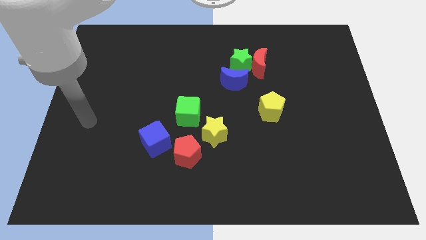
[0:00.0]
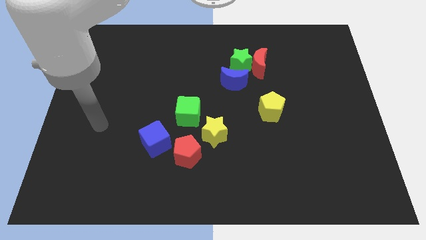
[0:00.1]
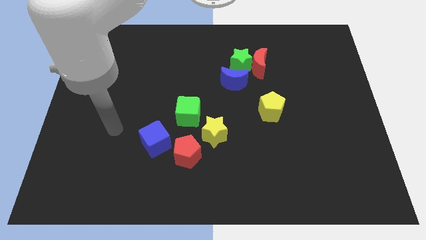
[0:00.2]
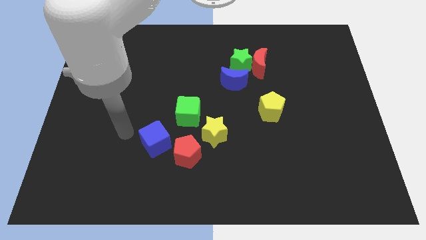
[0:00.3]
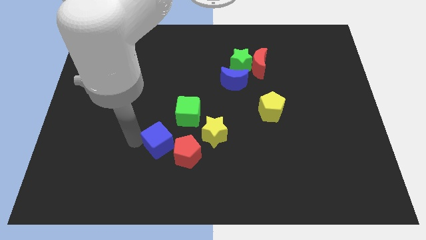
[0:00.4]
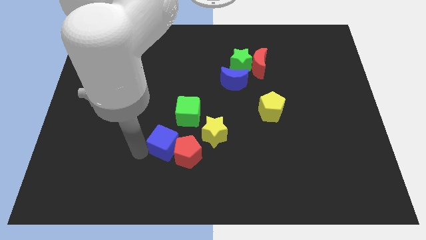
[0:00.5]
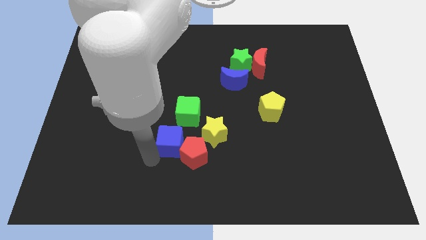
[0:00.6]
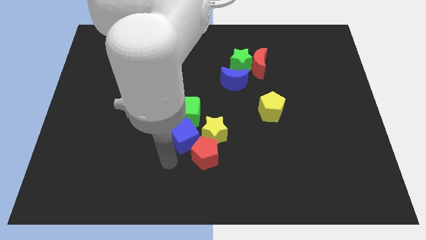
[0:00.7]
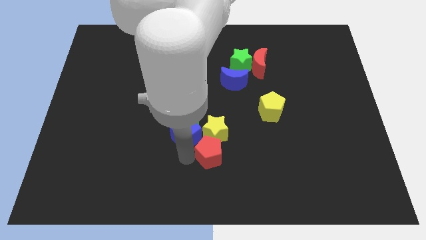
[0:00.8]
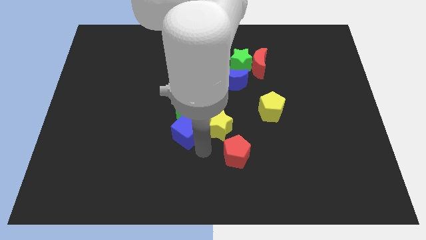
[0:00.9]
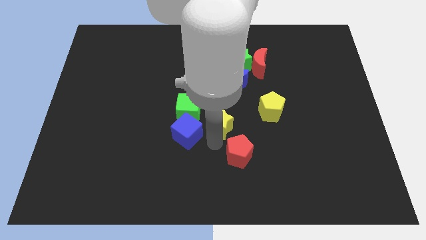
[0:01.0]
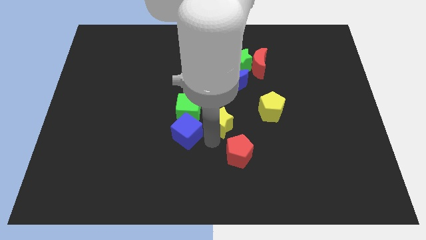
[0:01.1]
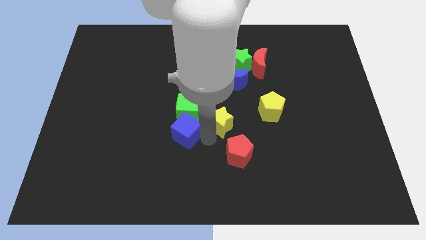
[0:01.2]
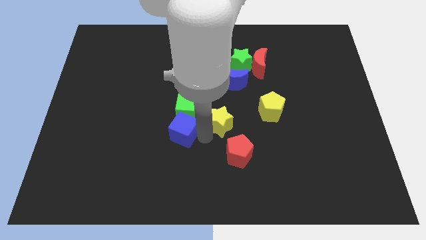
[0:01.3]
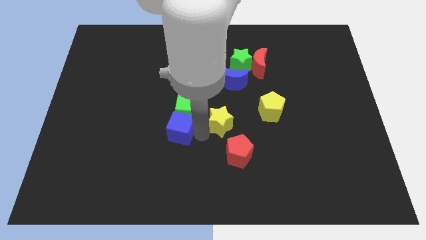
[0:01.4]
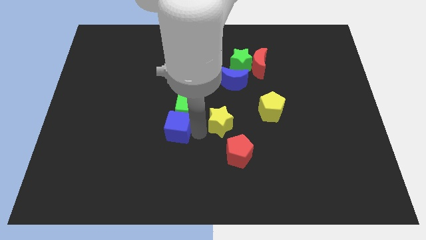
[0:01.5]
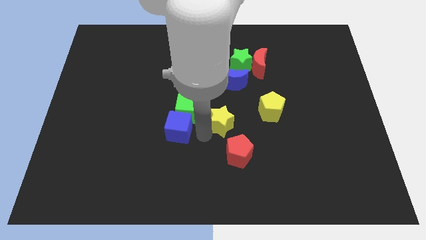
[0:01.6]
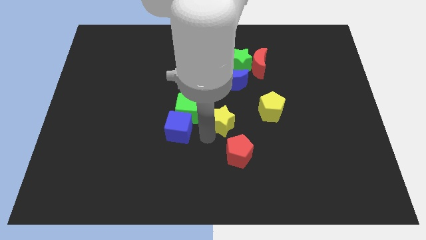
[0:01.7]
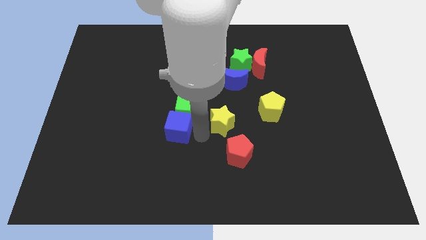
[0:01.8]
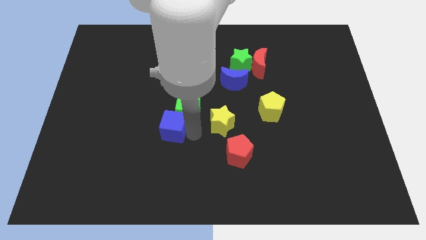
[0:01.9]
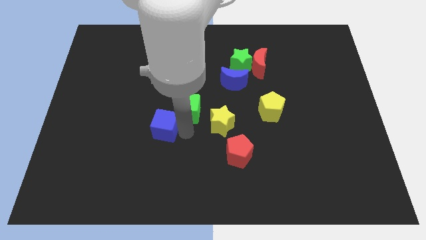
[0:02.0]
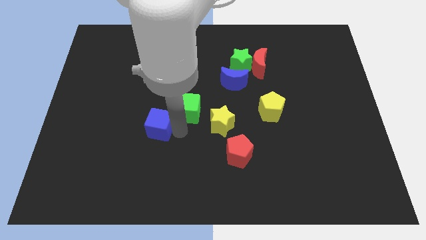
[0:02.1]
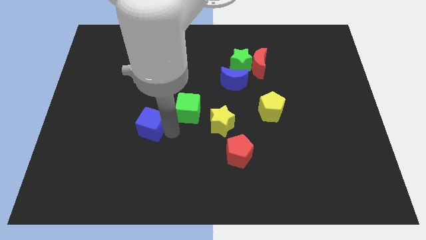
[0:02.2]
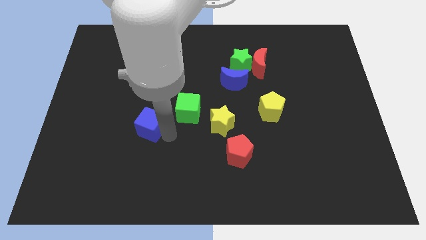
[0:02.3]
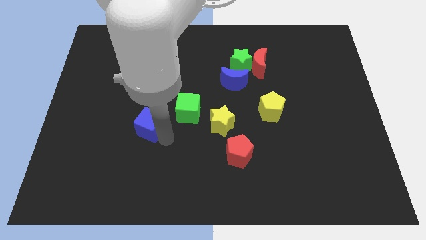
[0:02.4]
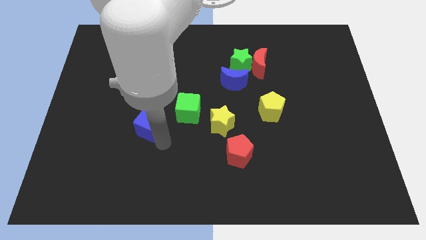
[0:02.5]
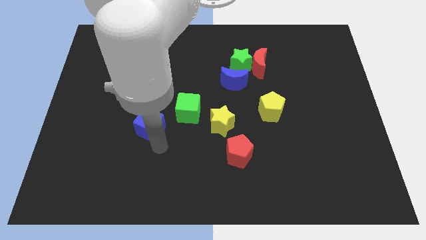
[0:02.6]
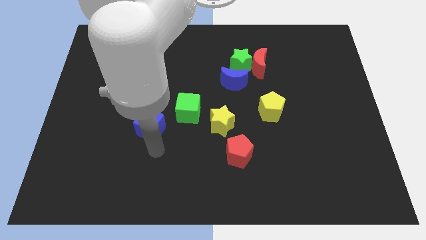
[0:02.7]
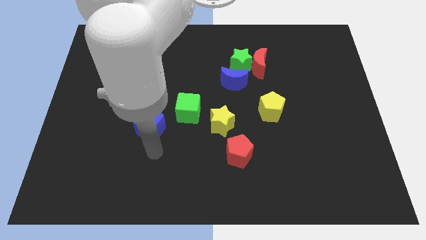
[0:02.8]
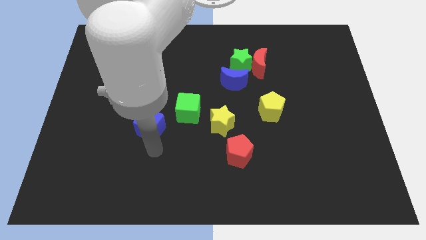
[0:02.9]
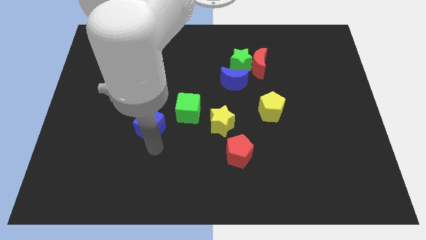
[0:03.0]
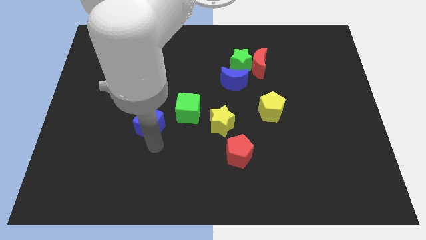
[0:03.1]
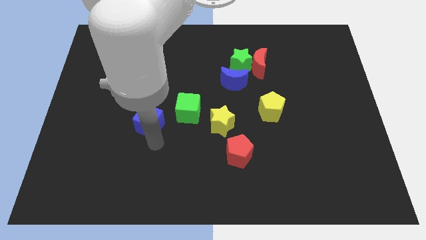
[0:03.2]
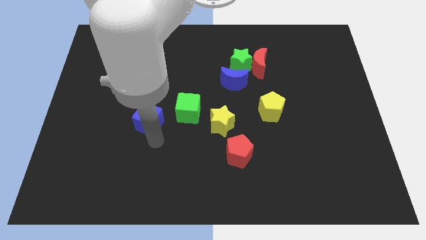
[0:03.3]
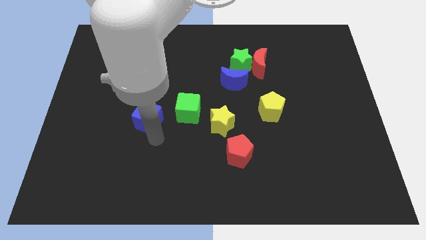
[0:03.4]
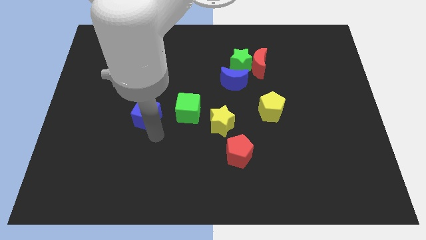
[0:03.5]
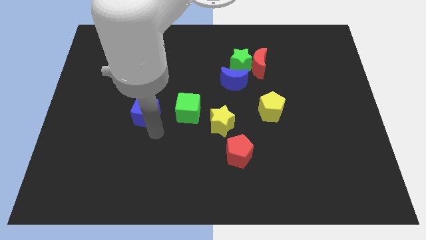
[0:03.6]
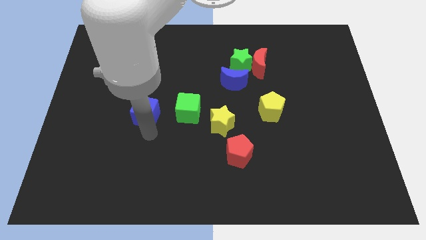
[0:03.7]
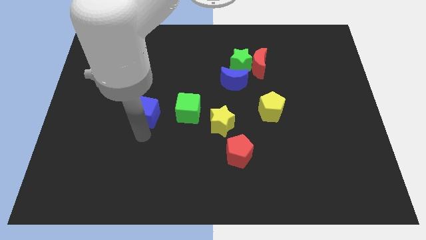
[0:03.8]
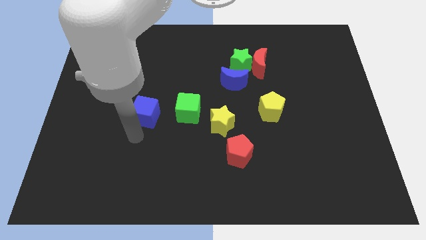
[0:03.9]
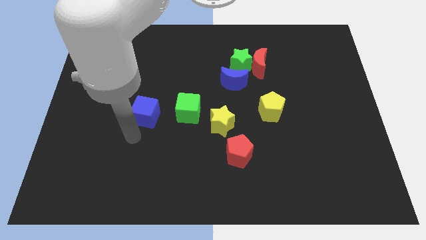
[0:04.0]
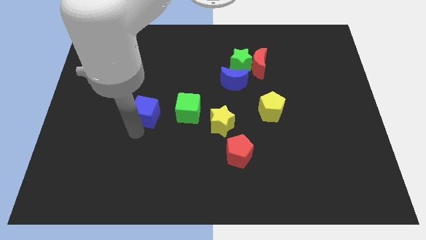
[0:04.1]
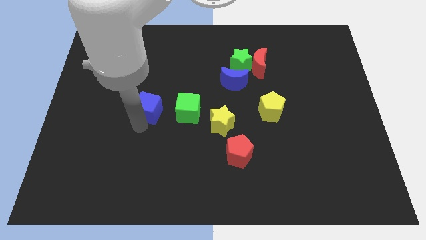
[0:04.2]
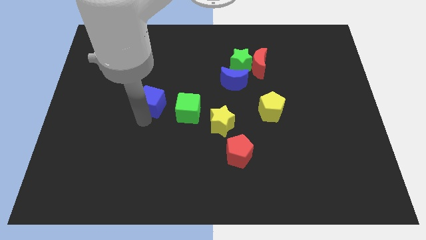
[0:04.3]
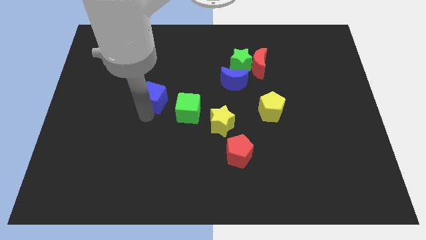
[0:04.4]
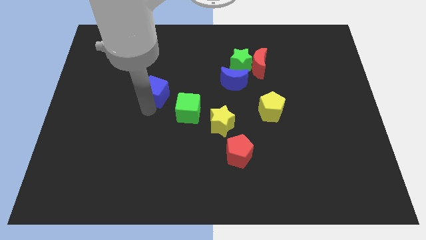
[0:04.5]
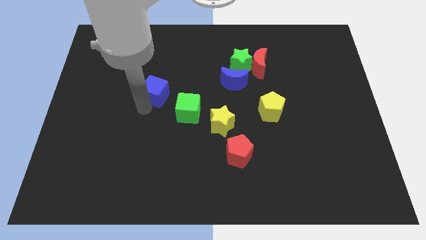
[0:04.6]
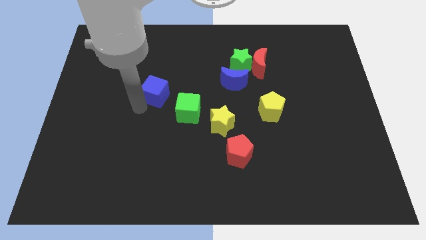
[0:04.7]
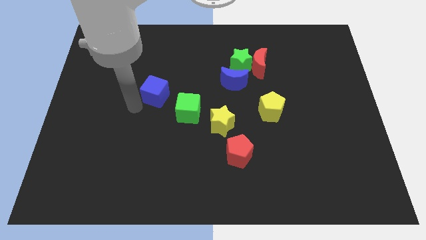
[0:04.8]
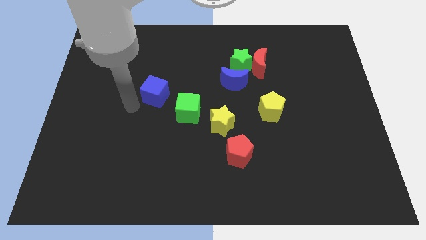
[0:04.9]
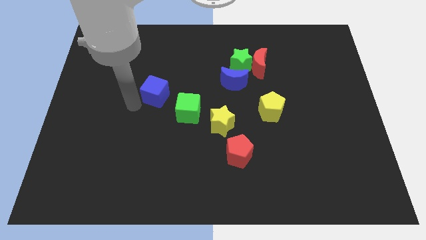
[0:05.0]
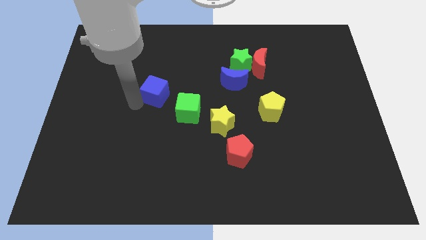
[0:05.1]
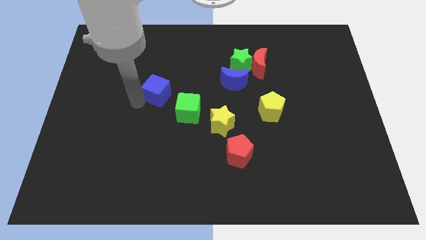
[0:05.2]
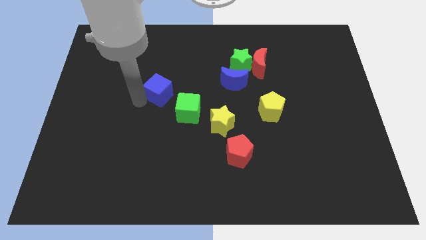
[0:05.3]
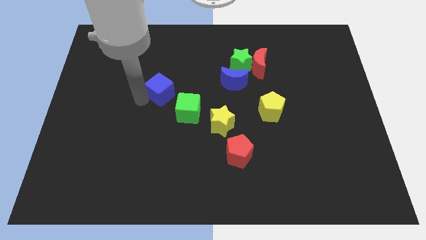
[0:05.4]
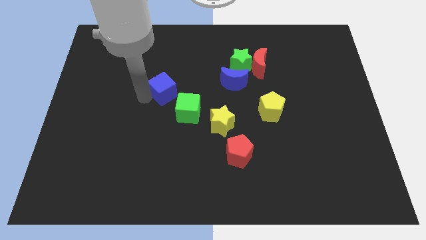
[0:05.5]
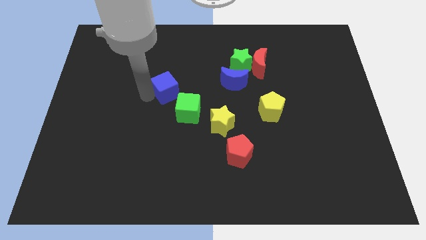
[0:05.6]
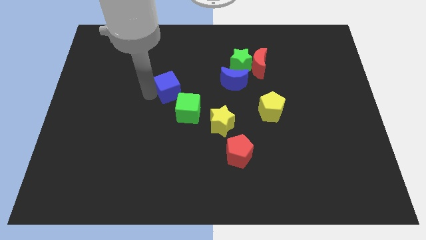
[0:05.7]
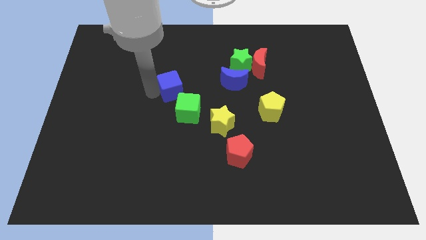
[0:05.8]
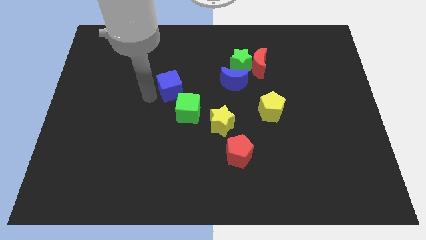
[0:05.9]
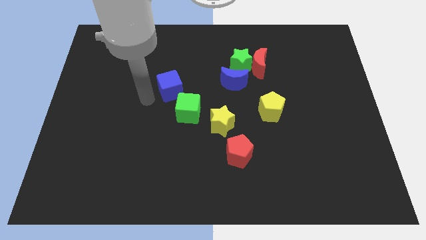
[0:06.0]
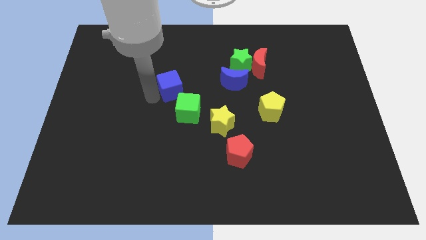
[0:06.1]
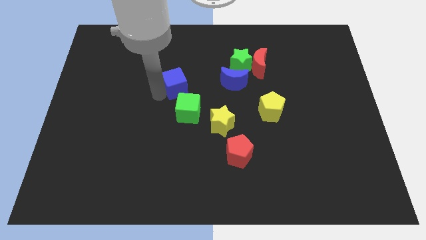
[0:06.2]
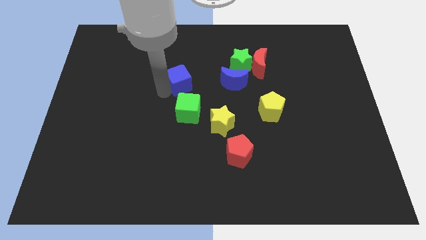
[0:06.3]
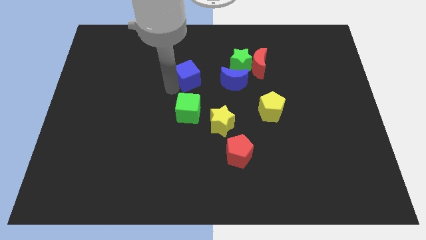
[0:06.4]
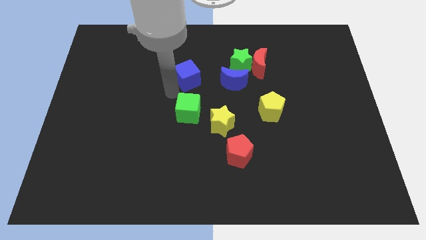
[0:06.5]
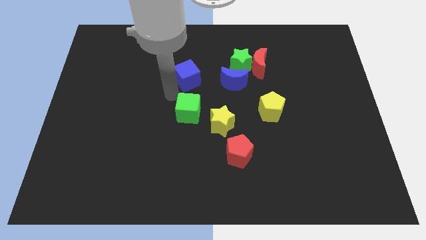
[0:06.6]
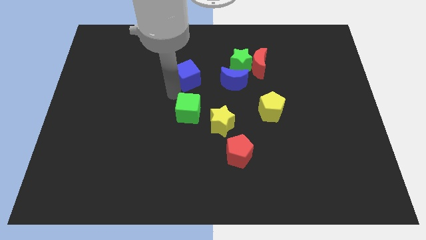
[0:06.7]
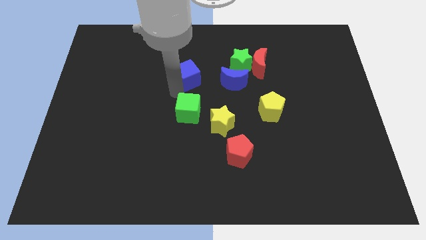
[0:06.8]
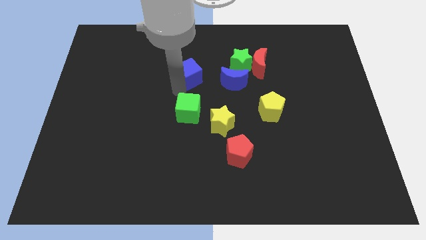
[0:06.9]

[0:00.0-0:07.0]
move the blue cube to the left side of the green star
